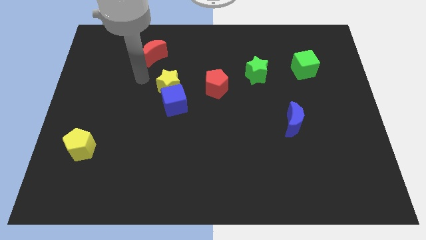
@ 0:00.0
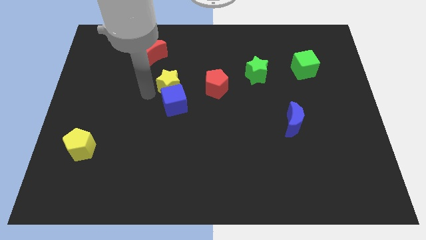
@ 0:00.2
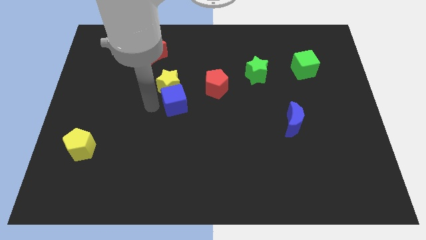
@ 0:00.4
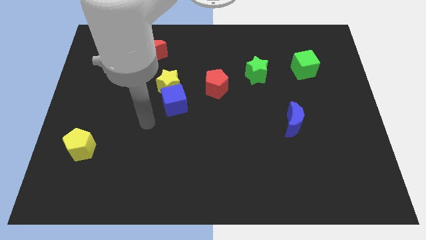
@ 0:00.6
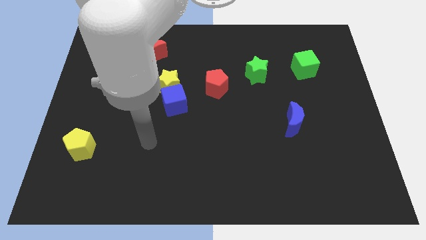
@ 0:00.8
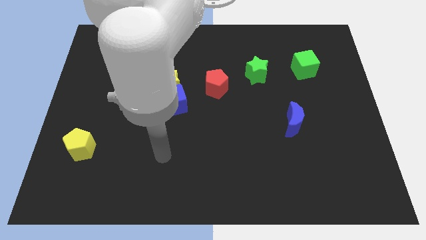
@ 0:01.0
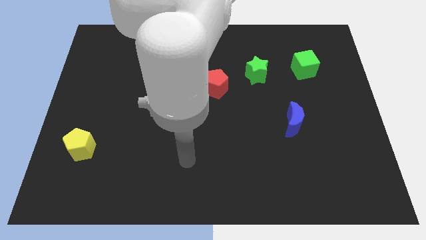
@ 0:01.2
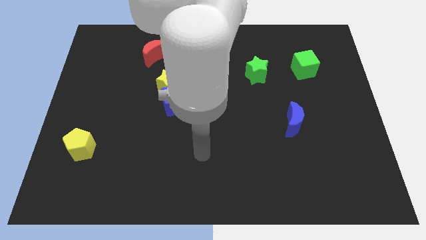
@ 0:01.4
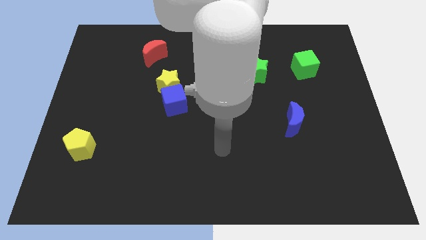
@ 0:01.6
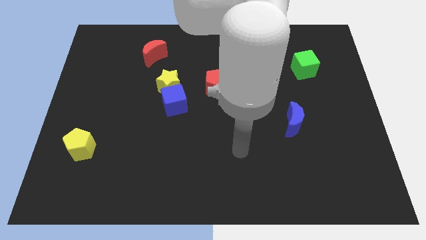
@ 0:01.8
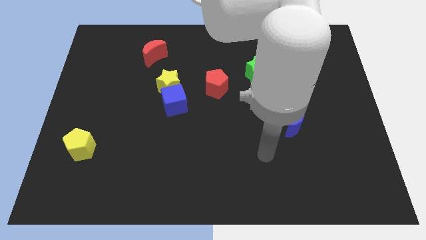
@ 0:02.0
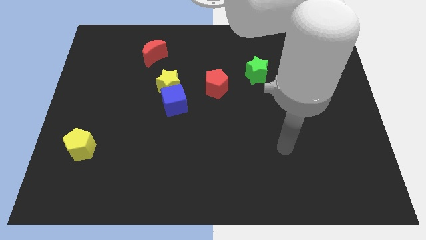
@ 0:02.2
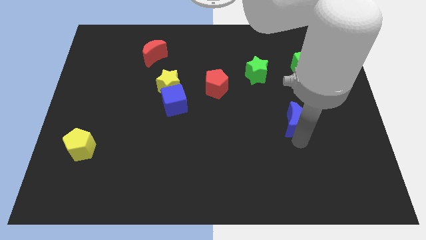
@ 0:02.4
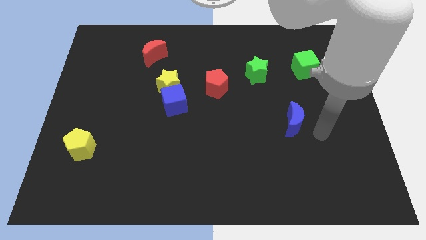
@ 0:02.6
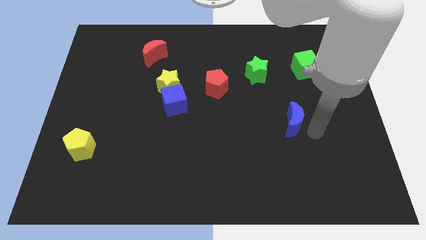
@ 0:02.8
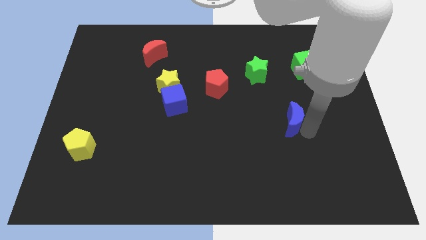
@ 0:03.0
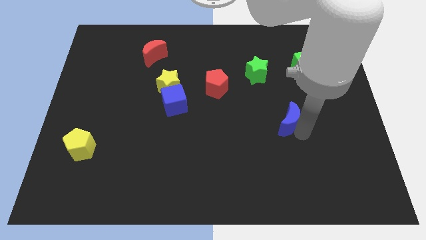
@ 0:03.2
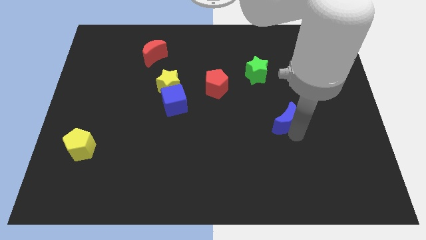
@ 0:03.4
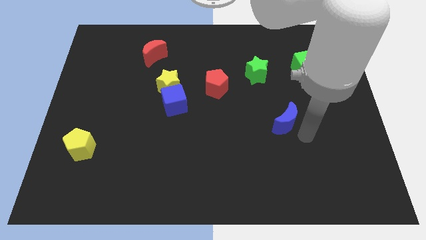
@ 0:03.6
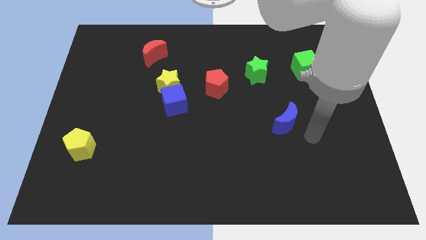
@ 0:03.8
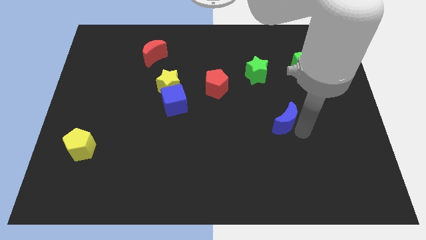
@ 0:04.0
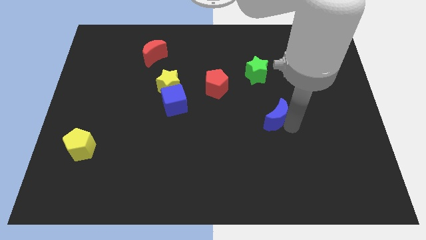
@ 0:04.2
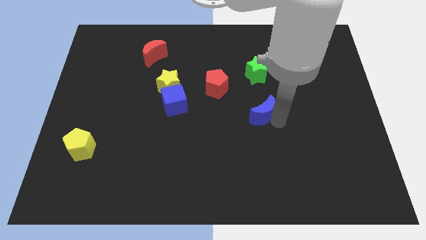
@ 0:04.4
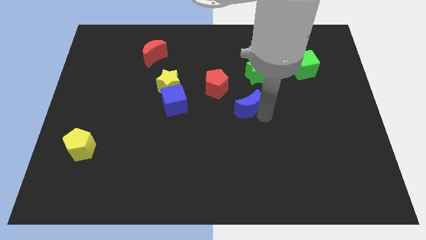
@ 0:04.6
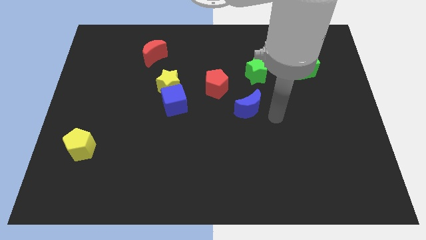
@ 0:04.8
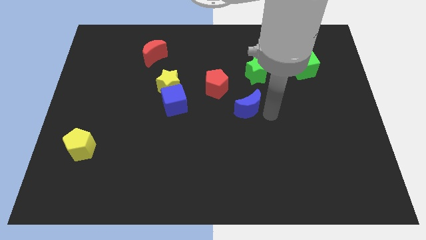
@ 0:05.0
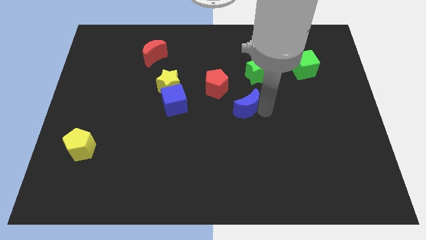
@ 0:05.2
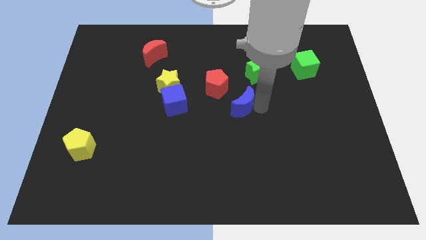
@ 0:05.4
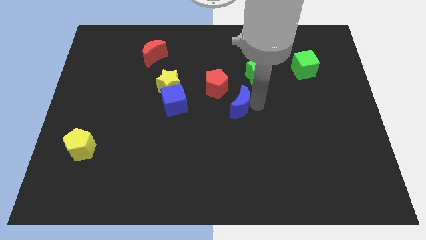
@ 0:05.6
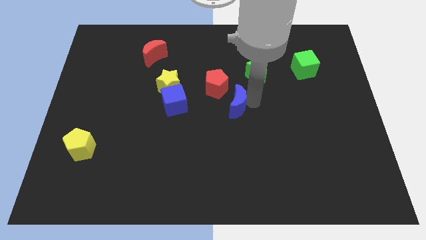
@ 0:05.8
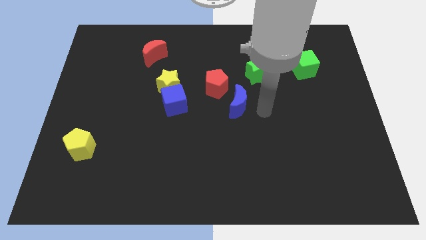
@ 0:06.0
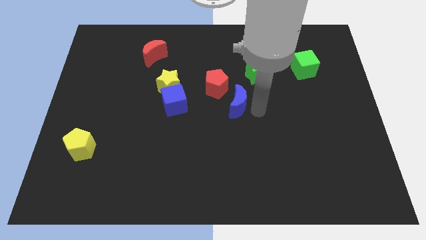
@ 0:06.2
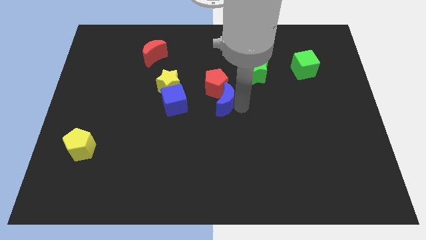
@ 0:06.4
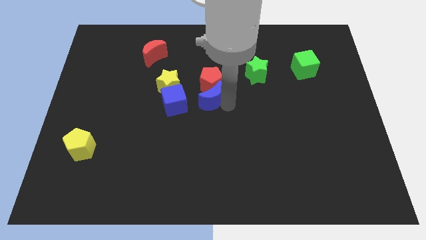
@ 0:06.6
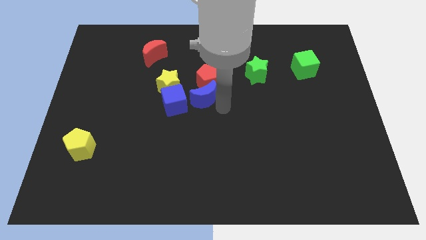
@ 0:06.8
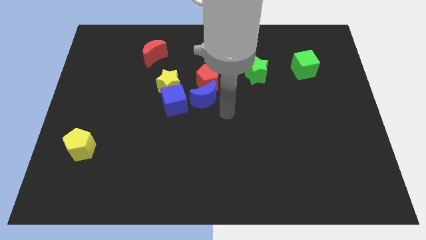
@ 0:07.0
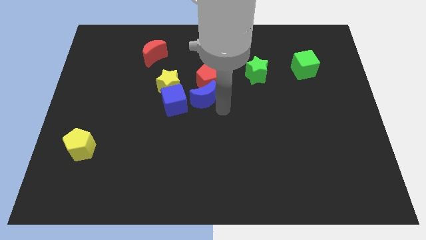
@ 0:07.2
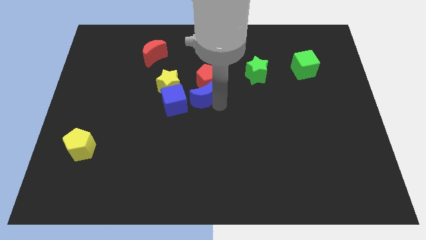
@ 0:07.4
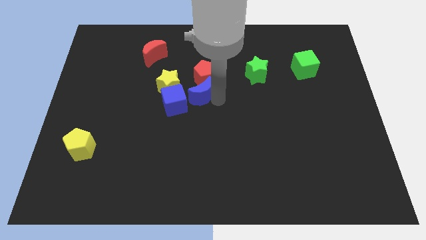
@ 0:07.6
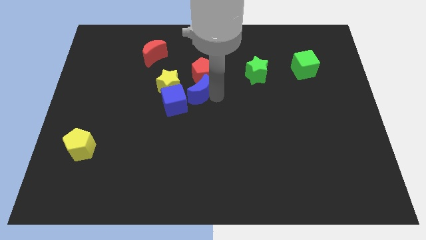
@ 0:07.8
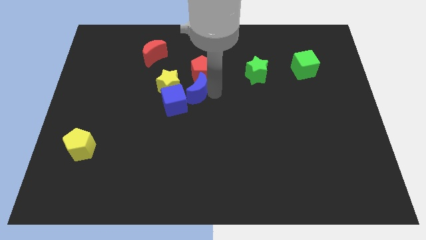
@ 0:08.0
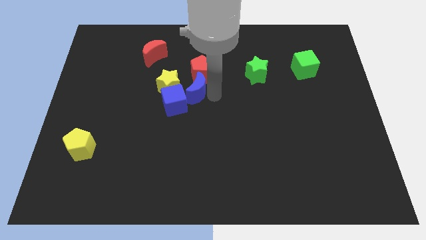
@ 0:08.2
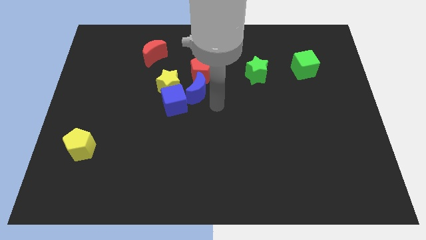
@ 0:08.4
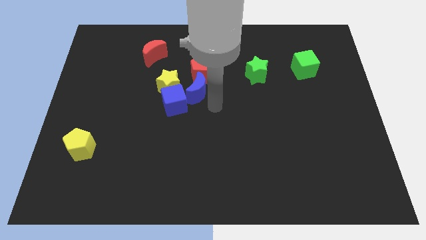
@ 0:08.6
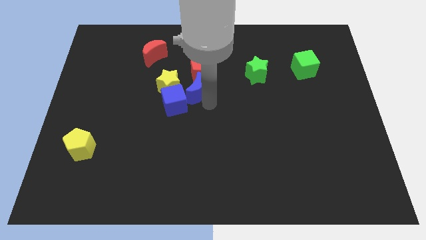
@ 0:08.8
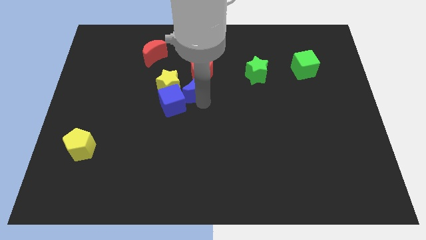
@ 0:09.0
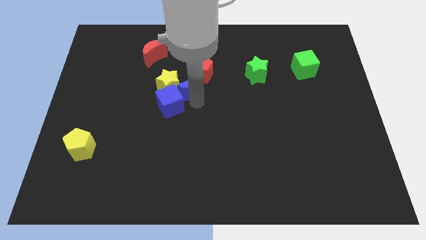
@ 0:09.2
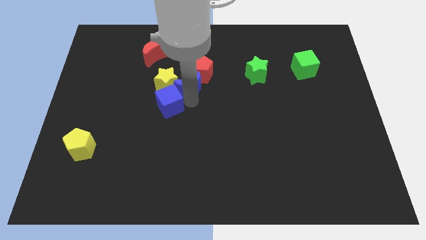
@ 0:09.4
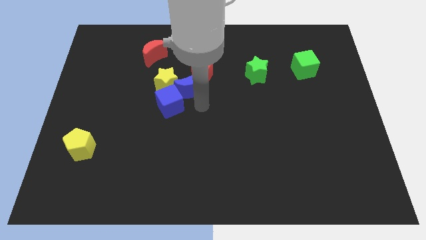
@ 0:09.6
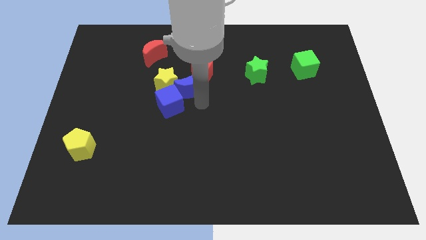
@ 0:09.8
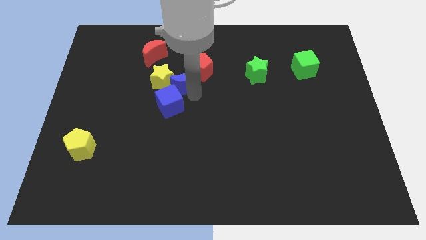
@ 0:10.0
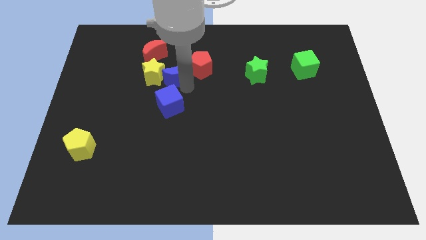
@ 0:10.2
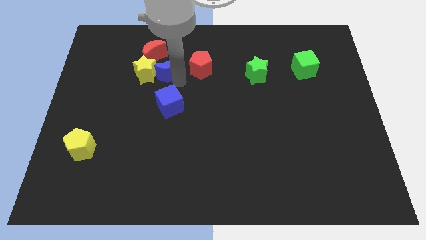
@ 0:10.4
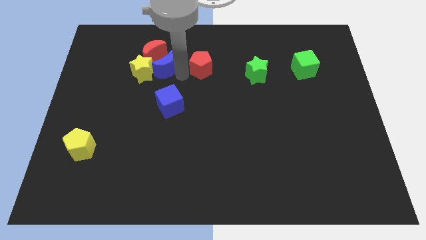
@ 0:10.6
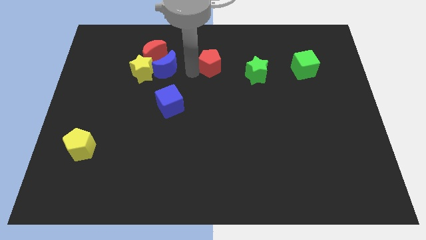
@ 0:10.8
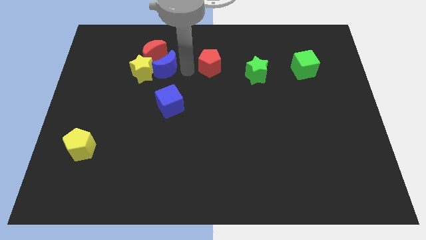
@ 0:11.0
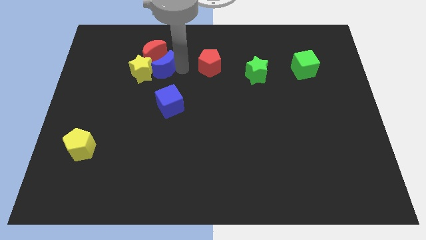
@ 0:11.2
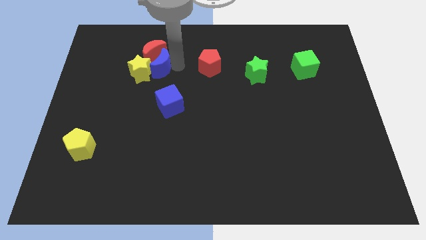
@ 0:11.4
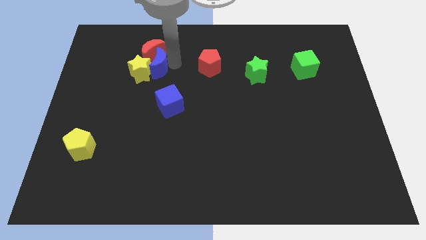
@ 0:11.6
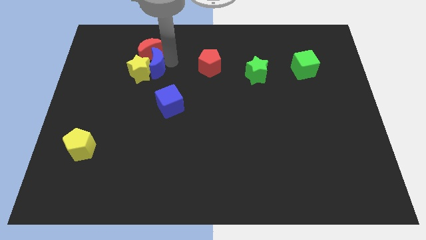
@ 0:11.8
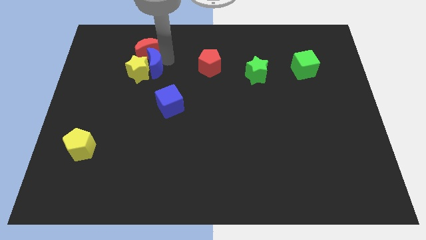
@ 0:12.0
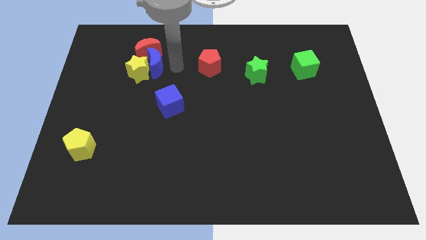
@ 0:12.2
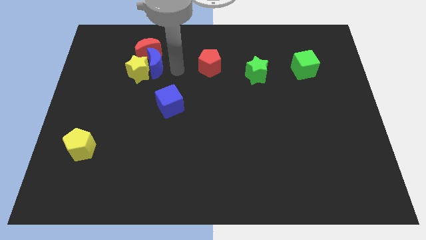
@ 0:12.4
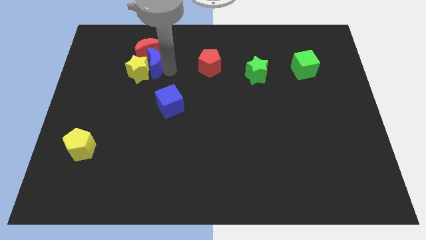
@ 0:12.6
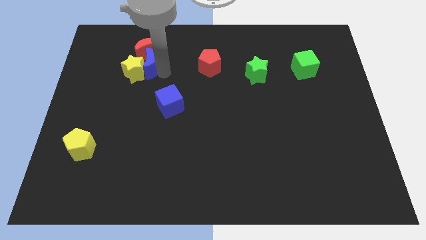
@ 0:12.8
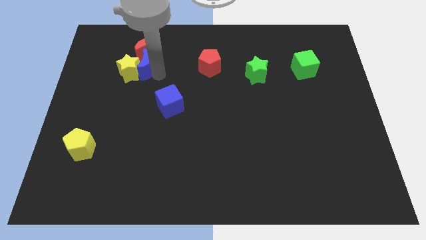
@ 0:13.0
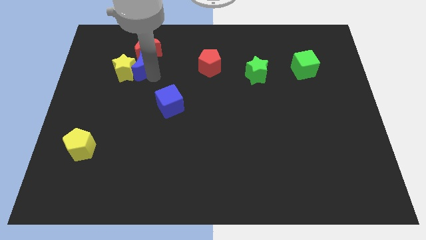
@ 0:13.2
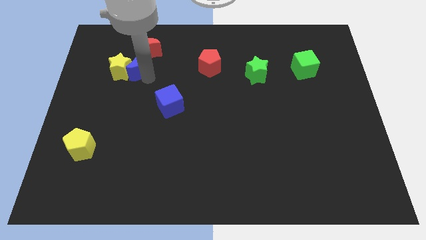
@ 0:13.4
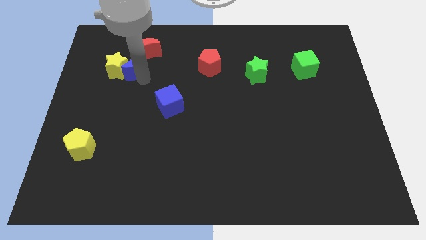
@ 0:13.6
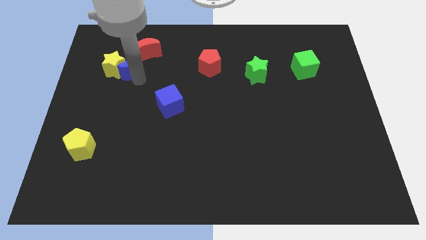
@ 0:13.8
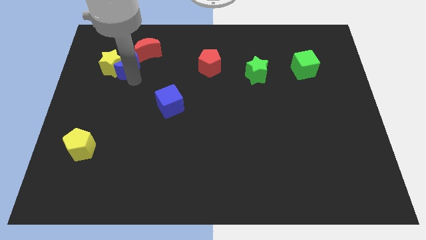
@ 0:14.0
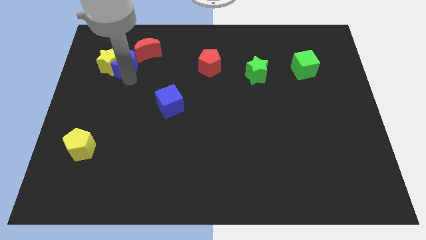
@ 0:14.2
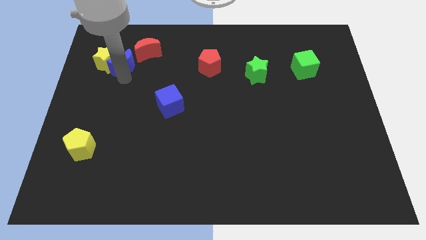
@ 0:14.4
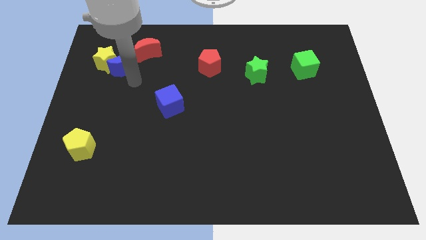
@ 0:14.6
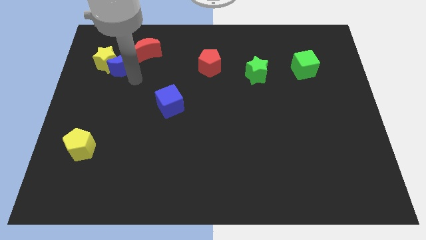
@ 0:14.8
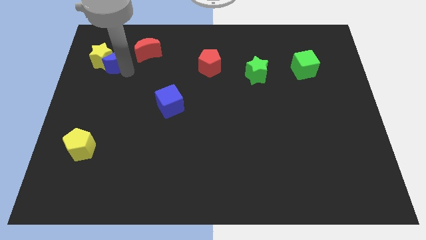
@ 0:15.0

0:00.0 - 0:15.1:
slide the blue moon just left of the red moon
